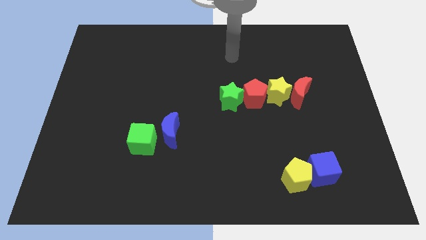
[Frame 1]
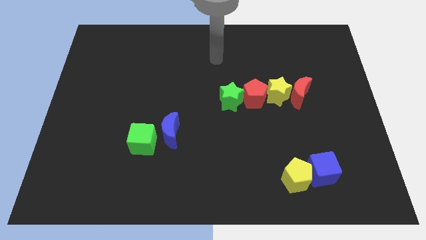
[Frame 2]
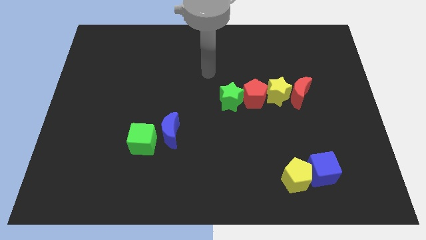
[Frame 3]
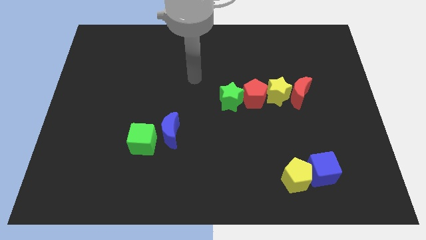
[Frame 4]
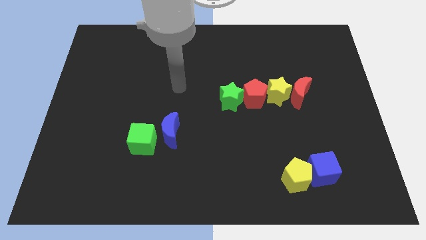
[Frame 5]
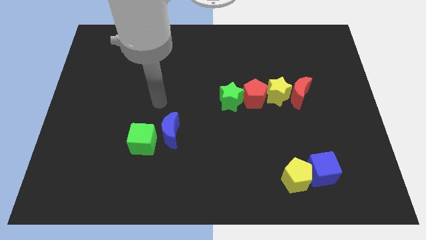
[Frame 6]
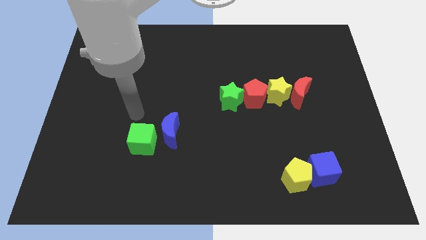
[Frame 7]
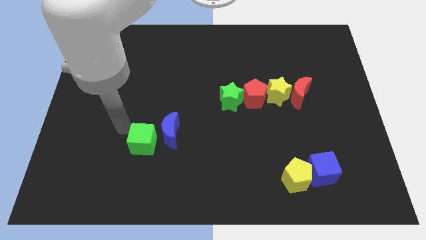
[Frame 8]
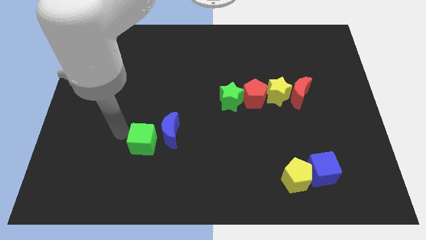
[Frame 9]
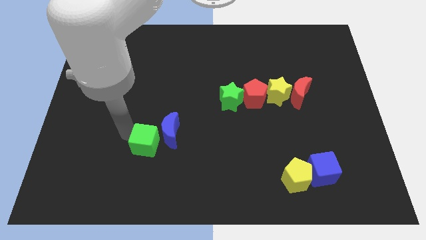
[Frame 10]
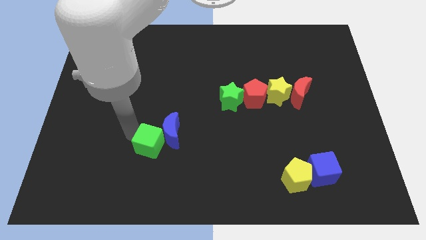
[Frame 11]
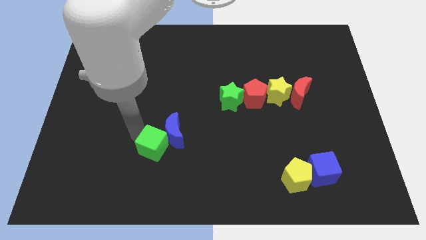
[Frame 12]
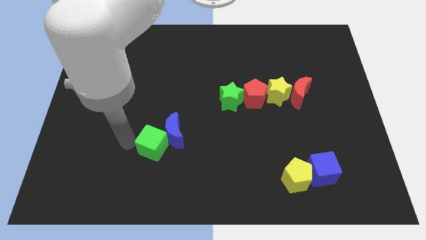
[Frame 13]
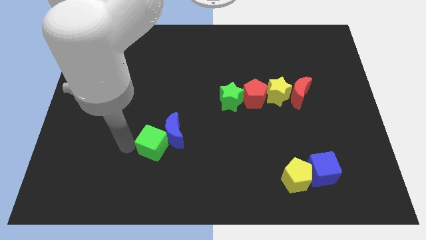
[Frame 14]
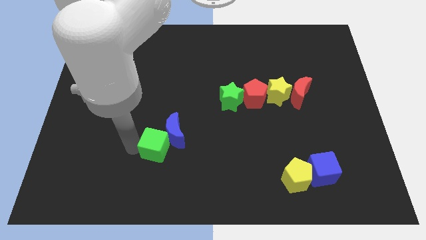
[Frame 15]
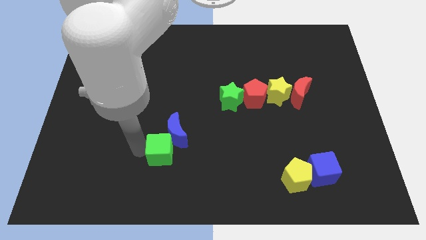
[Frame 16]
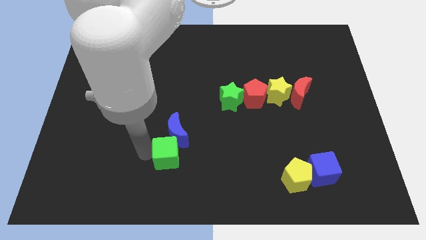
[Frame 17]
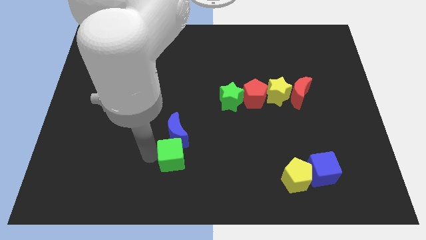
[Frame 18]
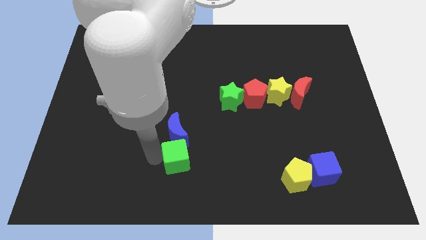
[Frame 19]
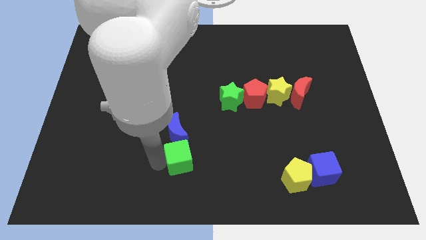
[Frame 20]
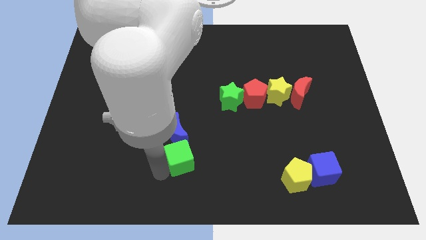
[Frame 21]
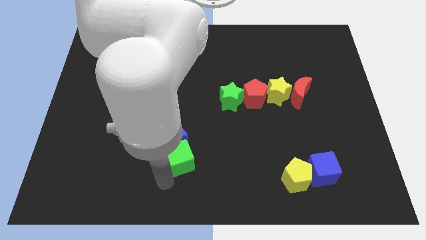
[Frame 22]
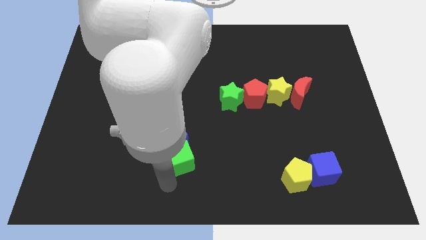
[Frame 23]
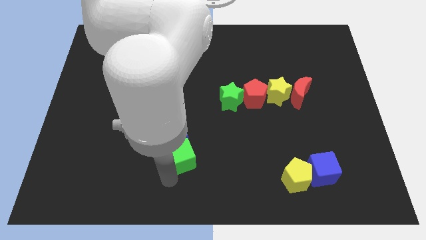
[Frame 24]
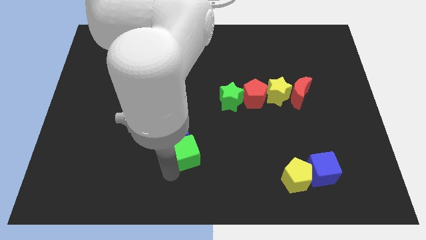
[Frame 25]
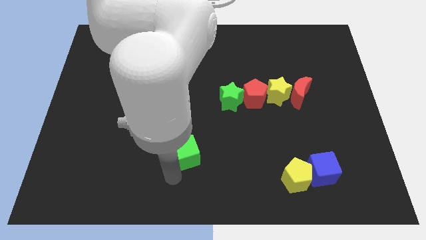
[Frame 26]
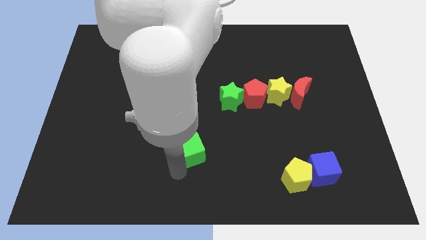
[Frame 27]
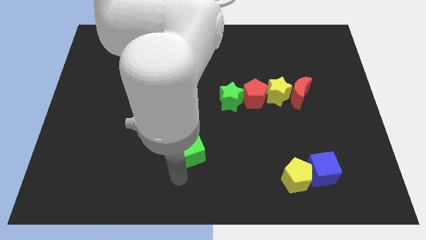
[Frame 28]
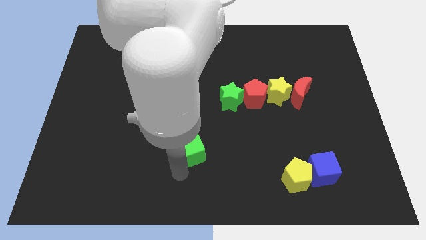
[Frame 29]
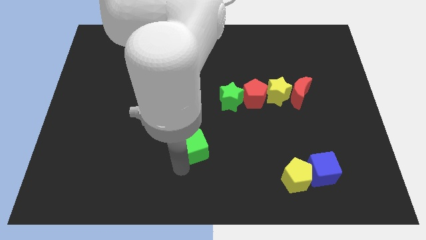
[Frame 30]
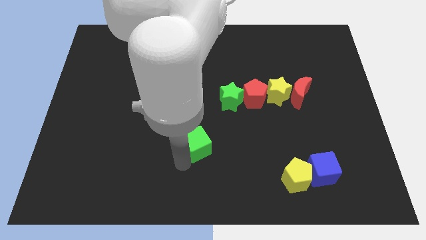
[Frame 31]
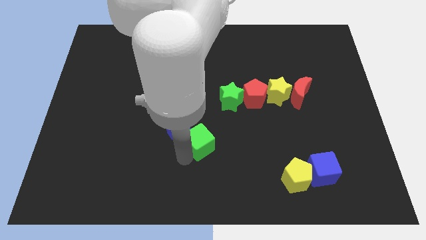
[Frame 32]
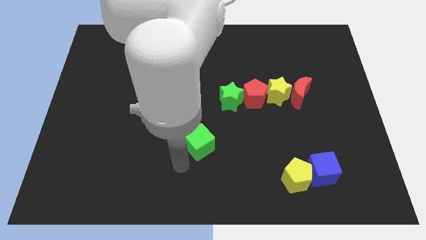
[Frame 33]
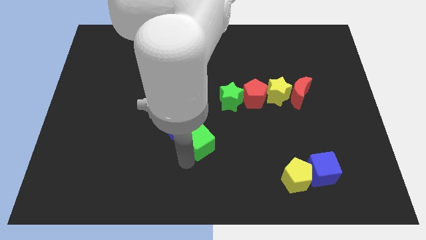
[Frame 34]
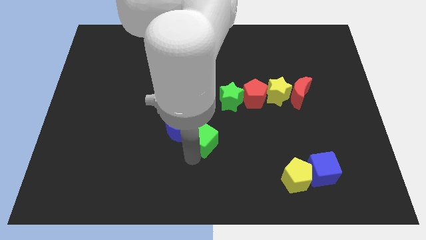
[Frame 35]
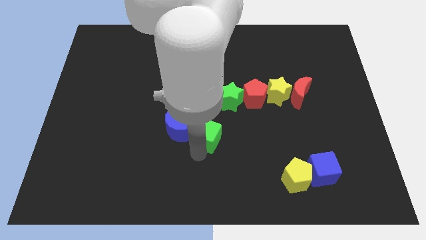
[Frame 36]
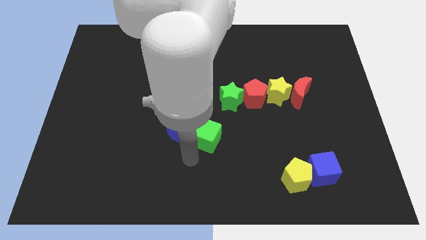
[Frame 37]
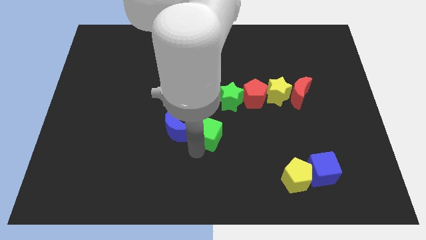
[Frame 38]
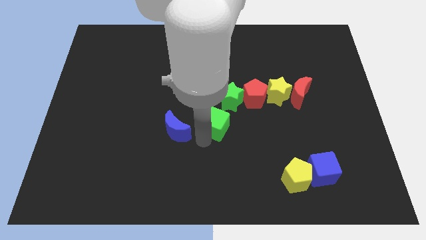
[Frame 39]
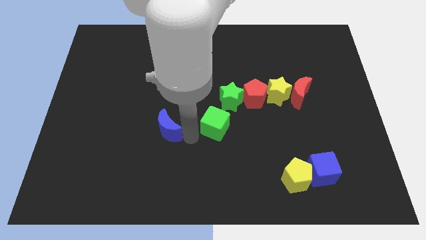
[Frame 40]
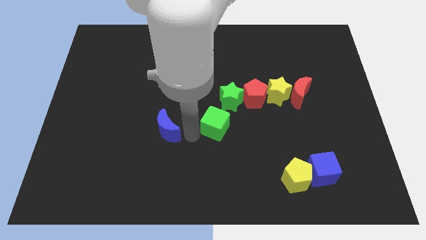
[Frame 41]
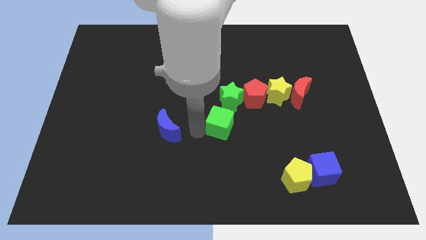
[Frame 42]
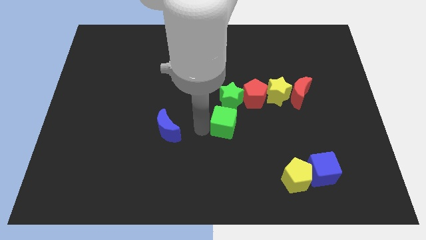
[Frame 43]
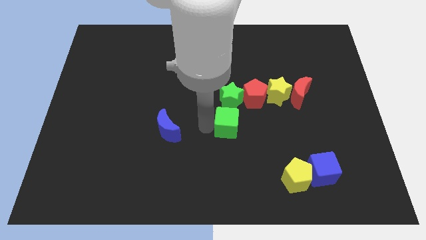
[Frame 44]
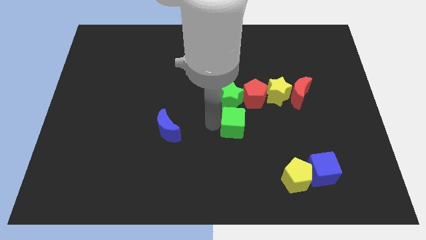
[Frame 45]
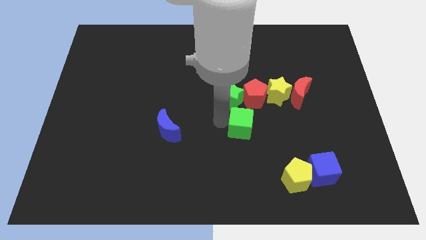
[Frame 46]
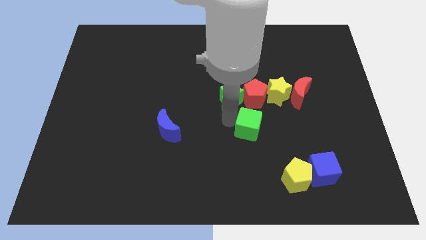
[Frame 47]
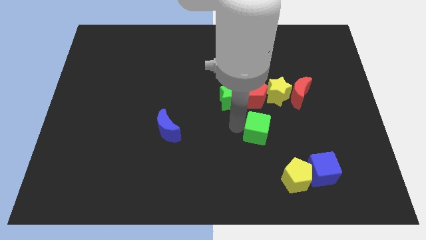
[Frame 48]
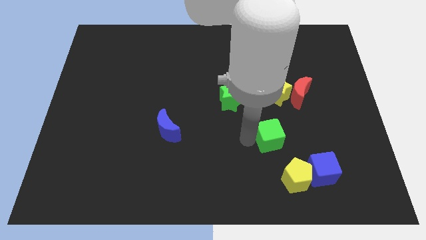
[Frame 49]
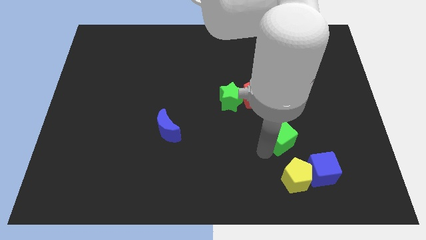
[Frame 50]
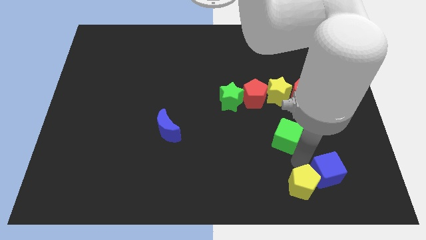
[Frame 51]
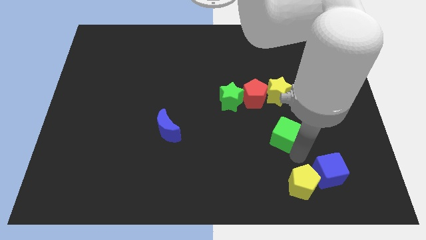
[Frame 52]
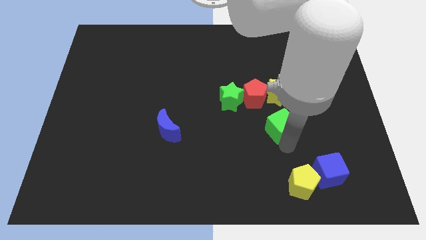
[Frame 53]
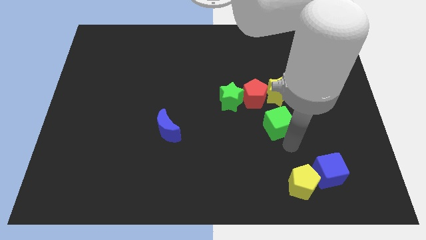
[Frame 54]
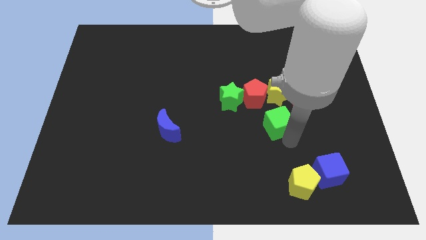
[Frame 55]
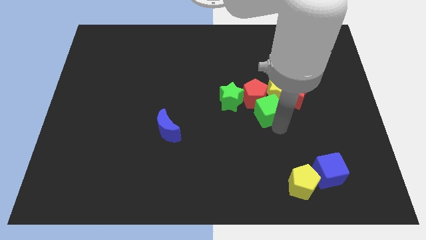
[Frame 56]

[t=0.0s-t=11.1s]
move the green cube to the red pentagon

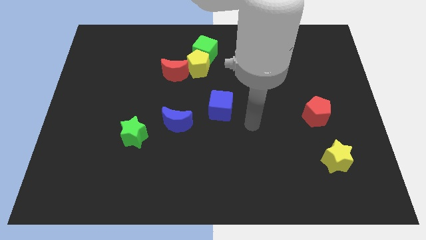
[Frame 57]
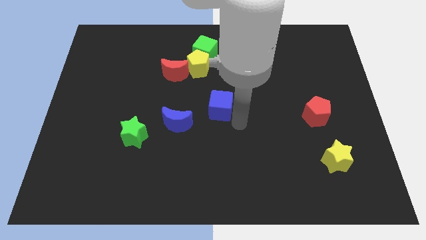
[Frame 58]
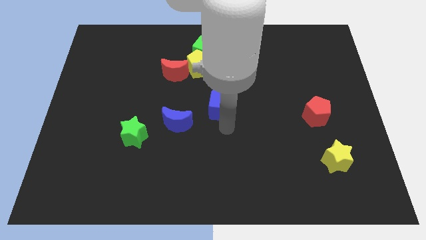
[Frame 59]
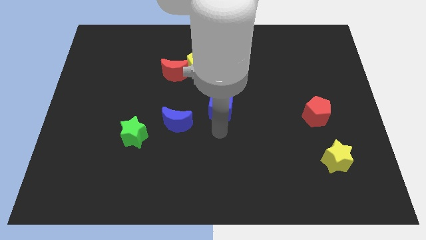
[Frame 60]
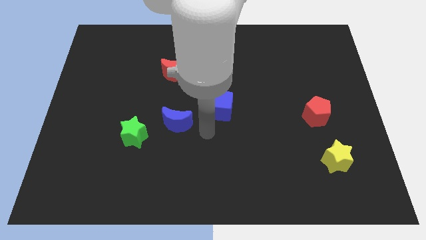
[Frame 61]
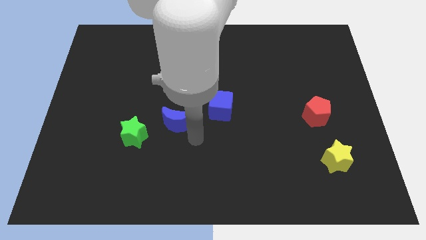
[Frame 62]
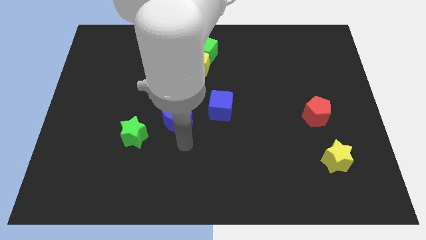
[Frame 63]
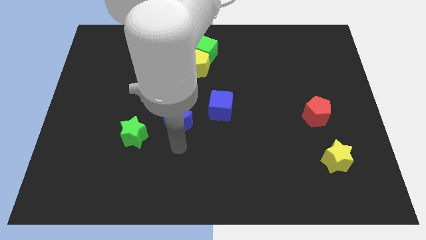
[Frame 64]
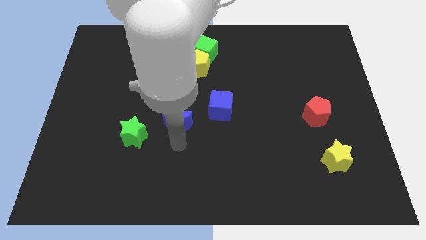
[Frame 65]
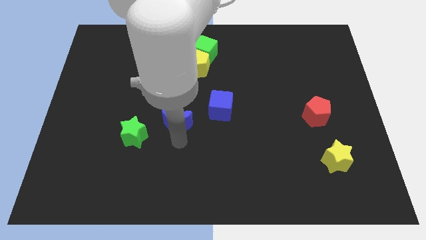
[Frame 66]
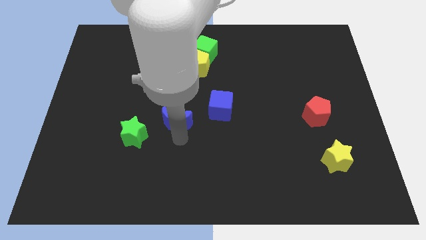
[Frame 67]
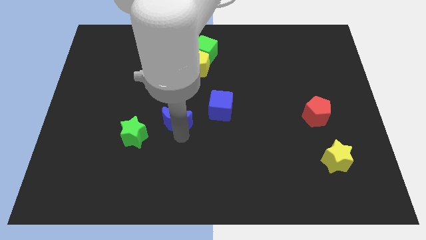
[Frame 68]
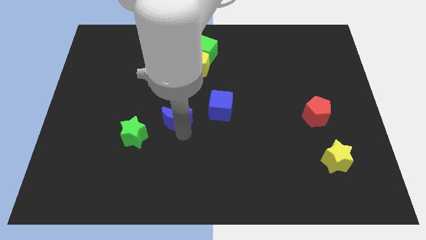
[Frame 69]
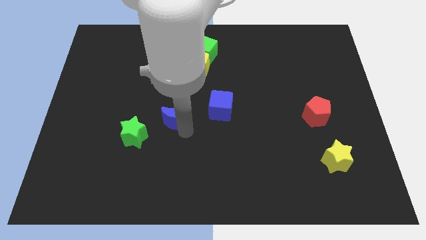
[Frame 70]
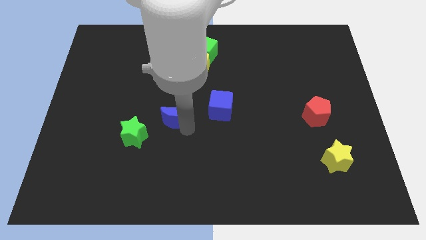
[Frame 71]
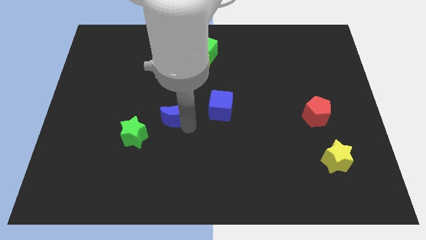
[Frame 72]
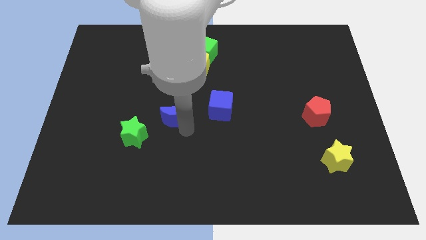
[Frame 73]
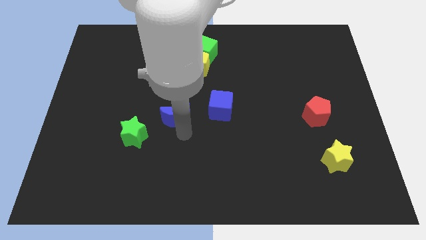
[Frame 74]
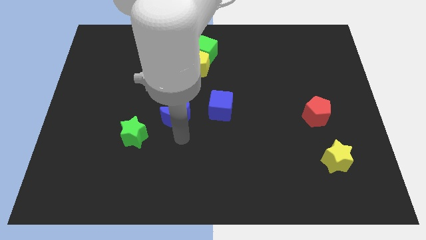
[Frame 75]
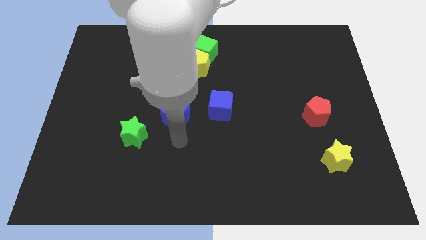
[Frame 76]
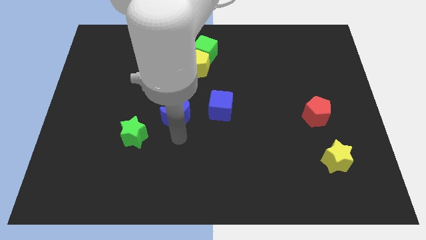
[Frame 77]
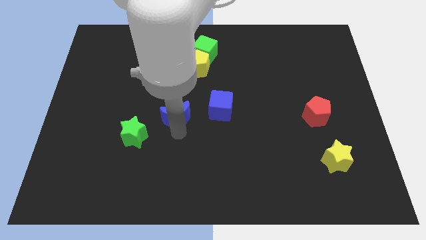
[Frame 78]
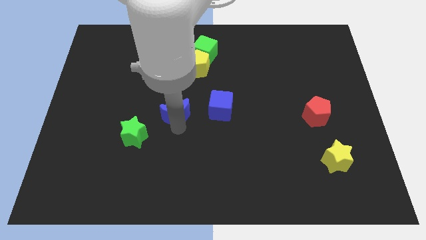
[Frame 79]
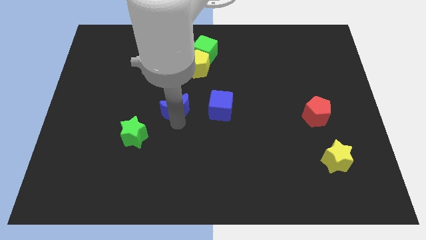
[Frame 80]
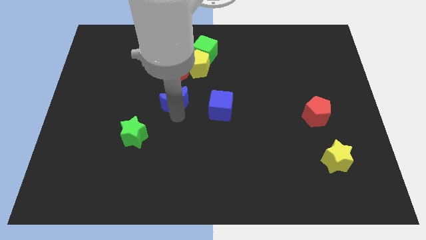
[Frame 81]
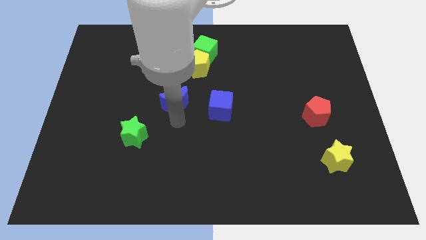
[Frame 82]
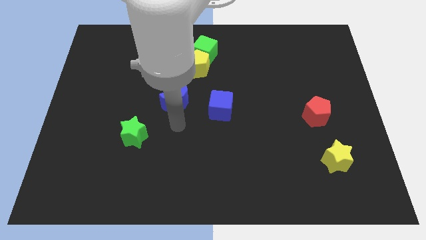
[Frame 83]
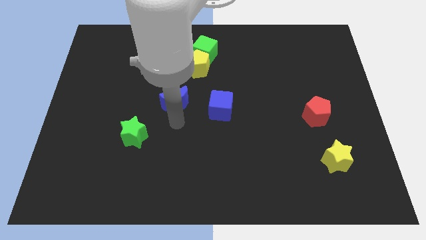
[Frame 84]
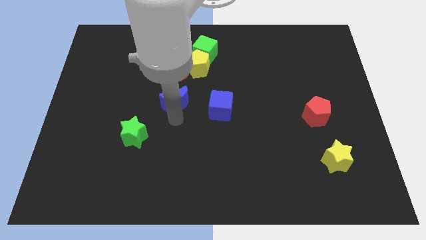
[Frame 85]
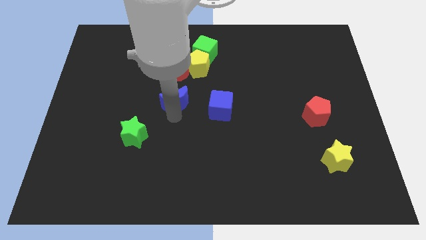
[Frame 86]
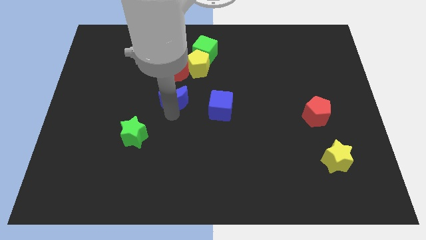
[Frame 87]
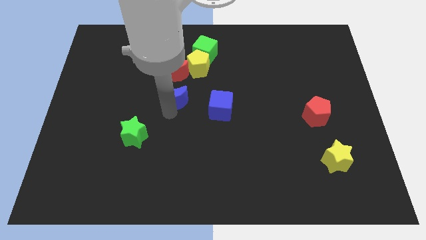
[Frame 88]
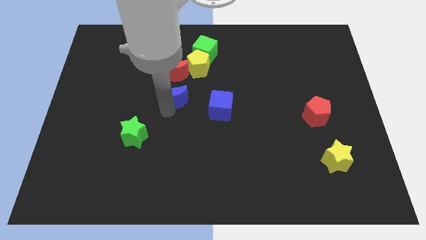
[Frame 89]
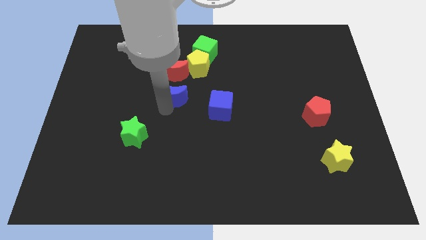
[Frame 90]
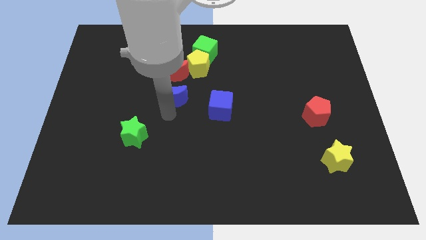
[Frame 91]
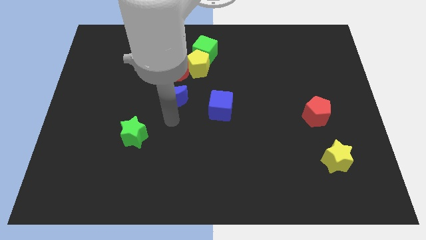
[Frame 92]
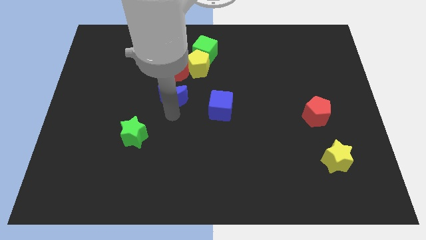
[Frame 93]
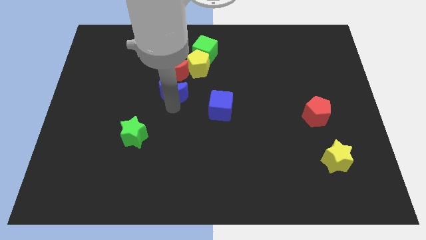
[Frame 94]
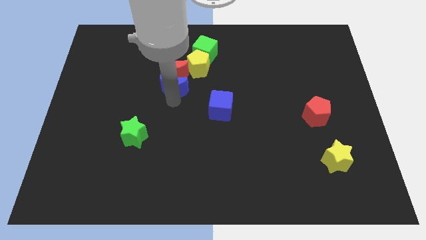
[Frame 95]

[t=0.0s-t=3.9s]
put the blue moon towards the red moon
